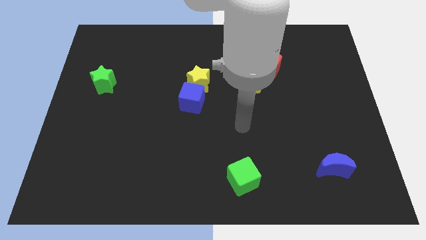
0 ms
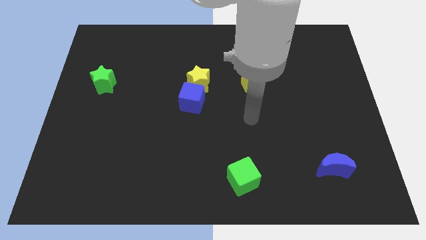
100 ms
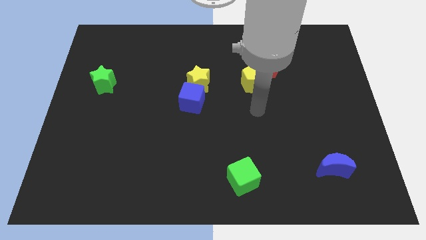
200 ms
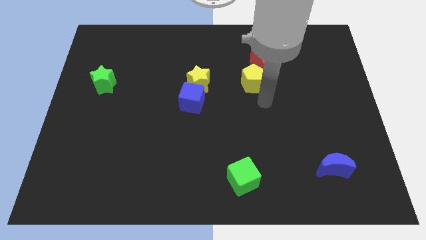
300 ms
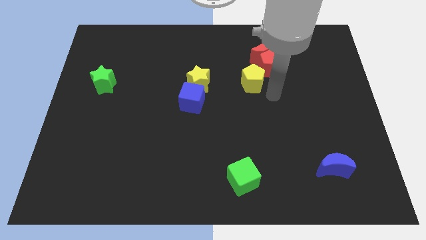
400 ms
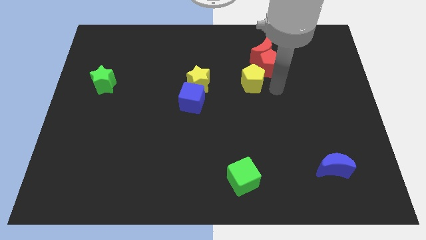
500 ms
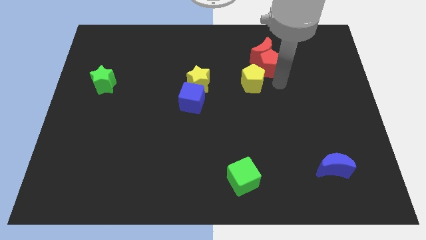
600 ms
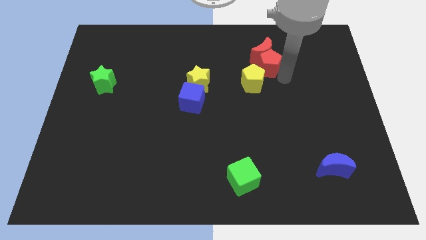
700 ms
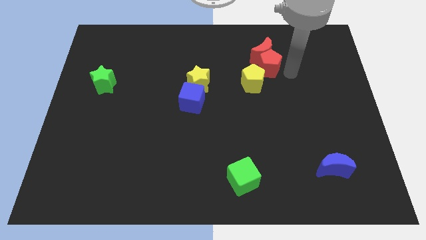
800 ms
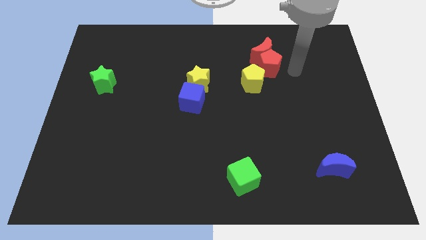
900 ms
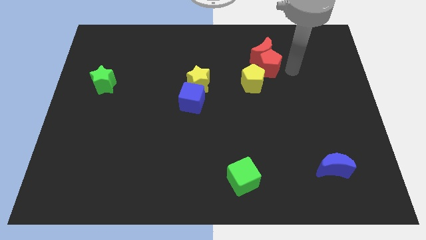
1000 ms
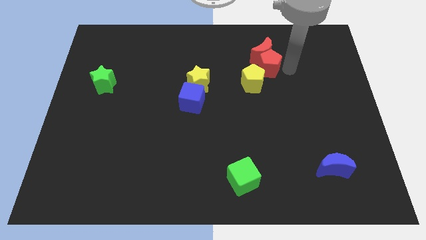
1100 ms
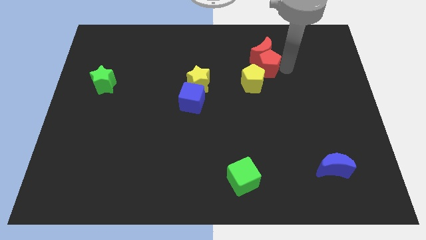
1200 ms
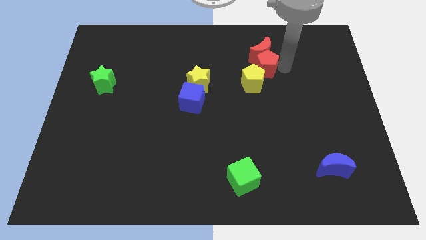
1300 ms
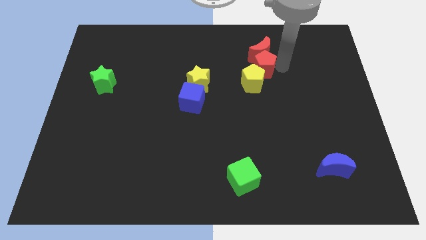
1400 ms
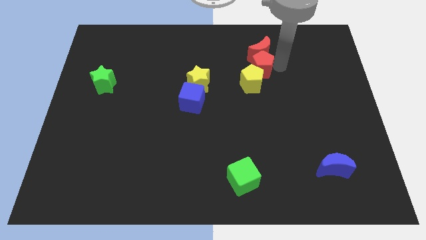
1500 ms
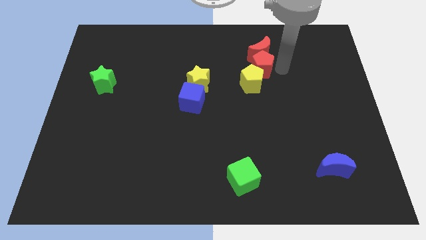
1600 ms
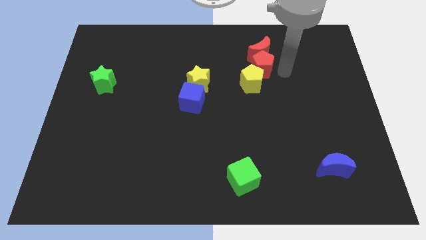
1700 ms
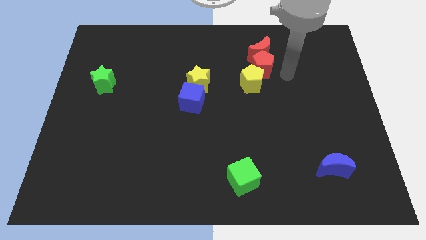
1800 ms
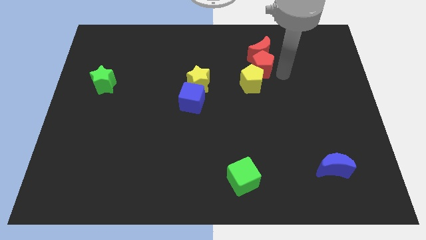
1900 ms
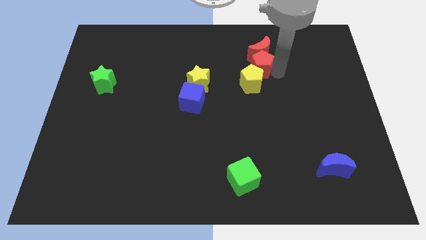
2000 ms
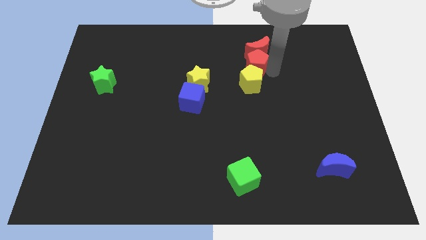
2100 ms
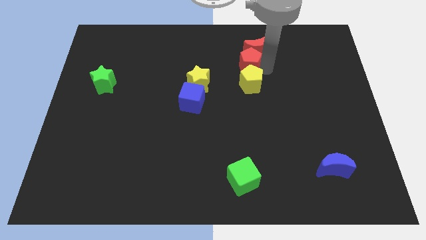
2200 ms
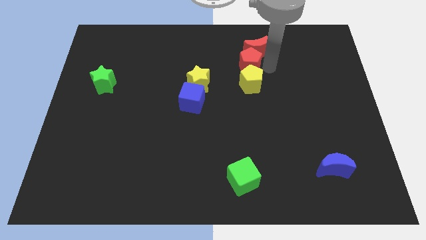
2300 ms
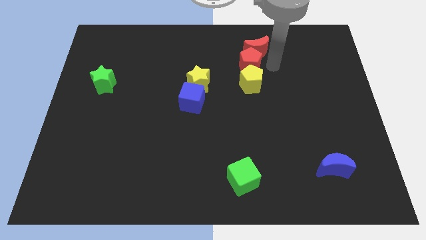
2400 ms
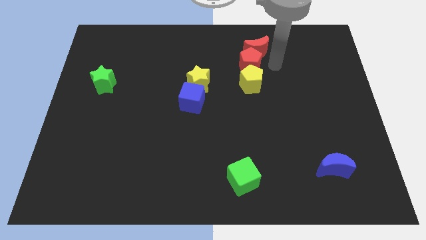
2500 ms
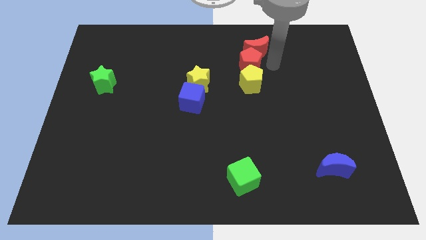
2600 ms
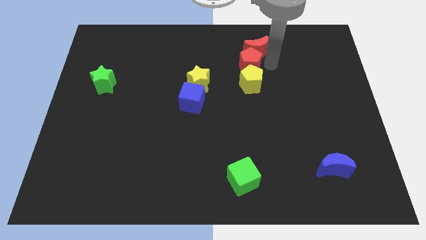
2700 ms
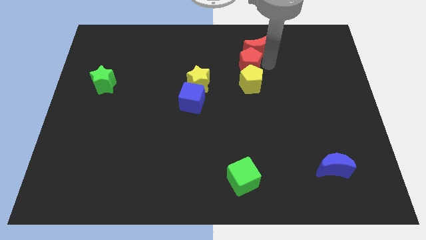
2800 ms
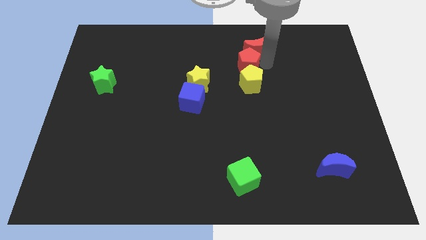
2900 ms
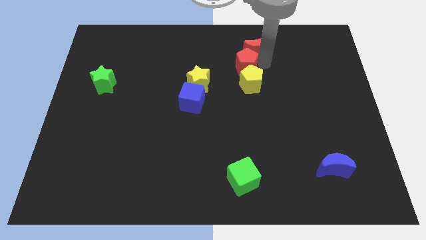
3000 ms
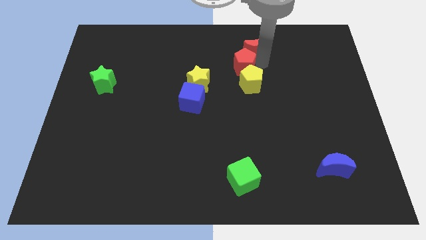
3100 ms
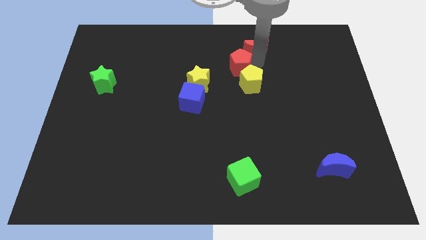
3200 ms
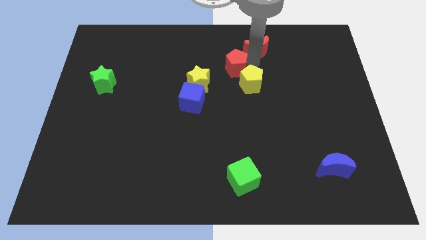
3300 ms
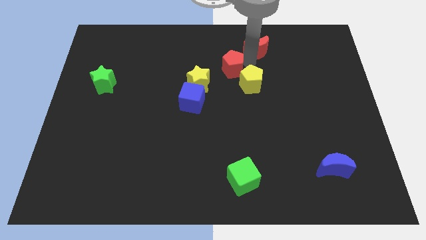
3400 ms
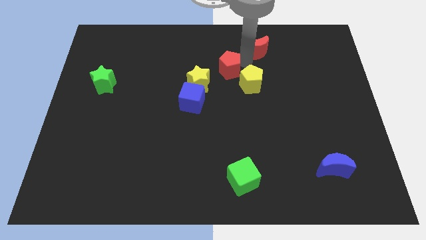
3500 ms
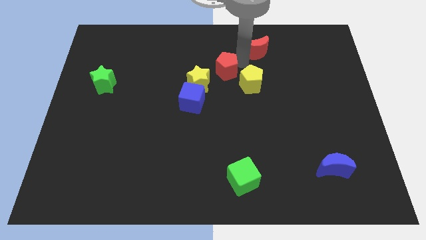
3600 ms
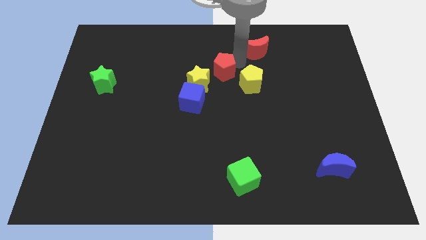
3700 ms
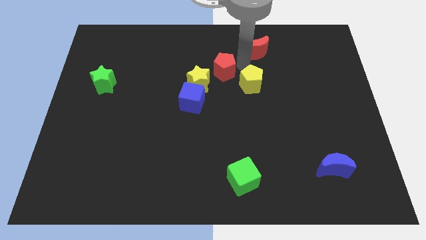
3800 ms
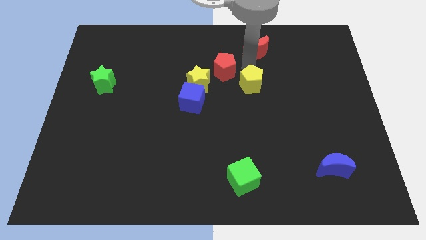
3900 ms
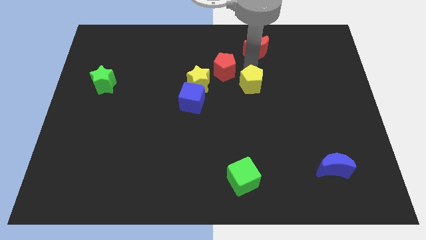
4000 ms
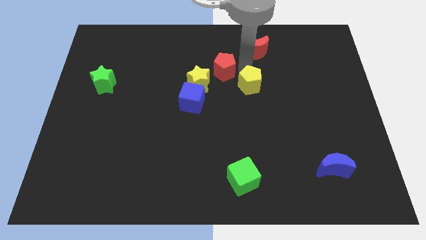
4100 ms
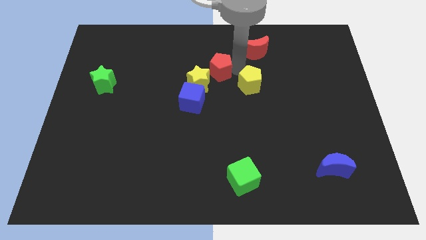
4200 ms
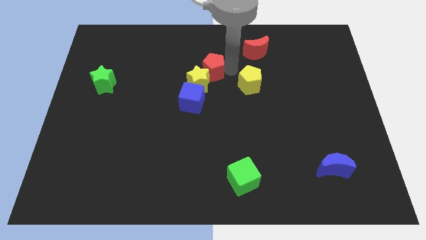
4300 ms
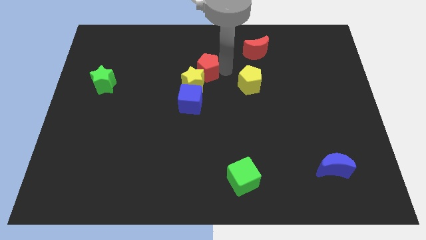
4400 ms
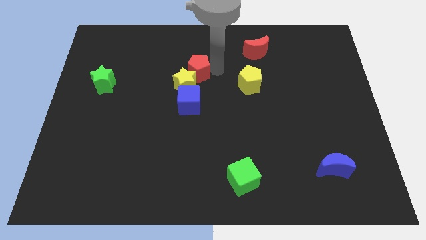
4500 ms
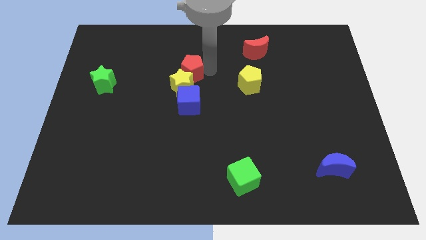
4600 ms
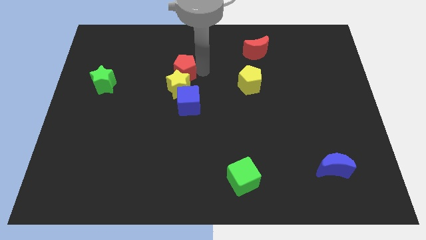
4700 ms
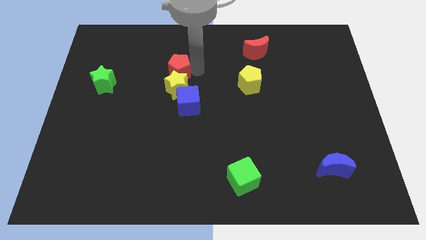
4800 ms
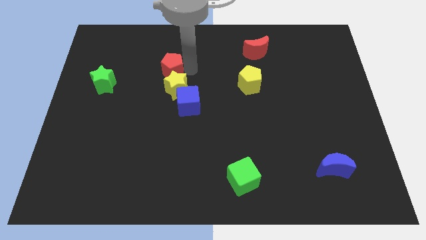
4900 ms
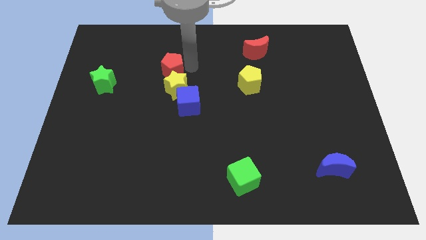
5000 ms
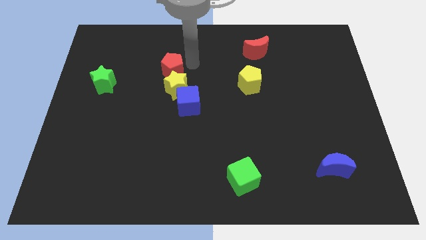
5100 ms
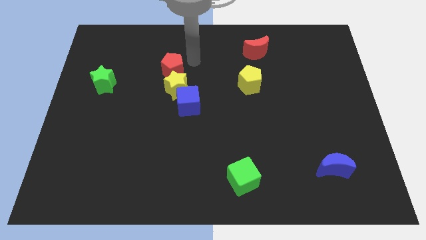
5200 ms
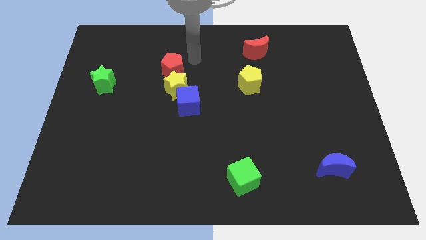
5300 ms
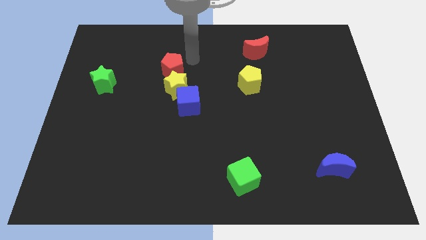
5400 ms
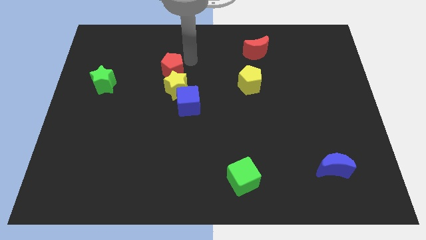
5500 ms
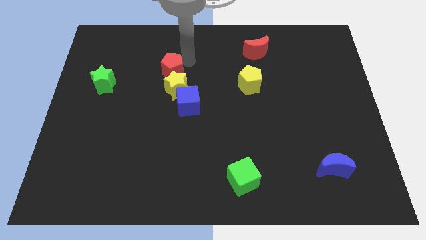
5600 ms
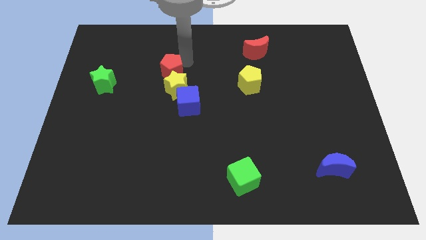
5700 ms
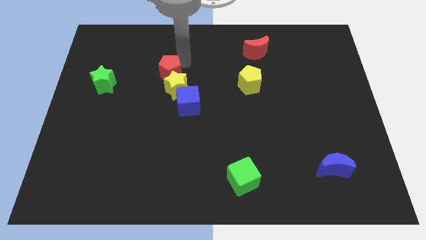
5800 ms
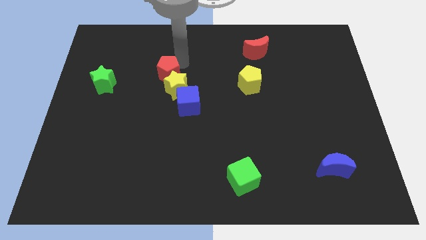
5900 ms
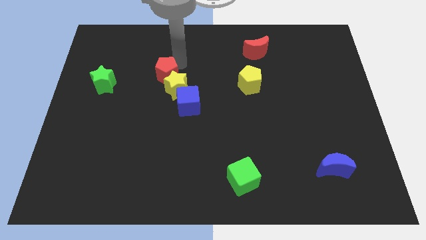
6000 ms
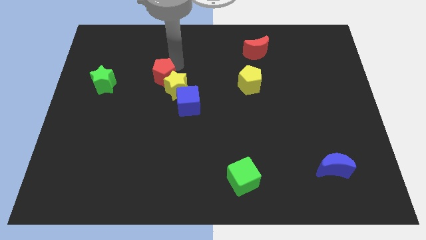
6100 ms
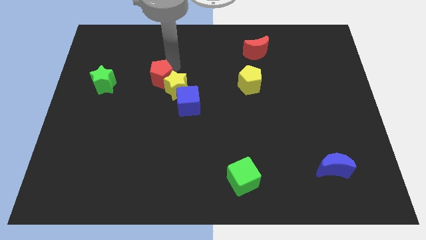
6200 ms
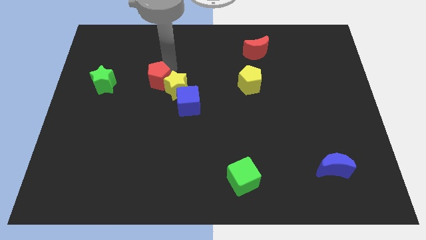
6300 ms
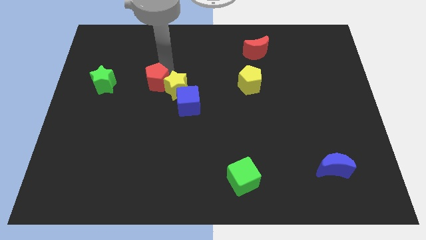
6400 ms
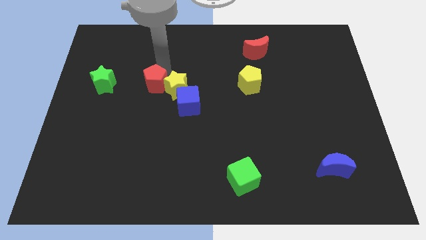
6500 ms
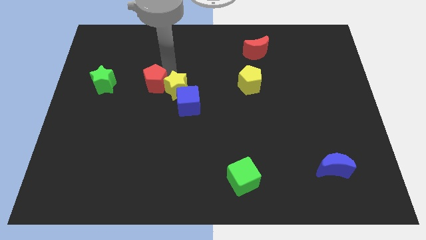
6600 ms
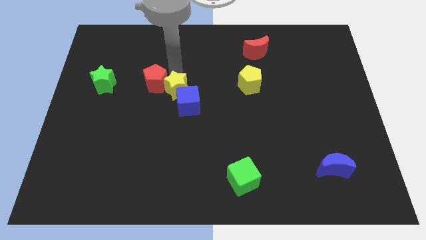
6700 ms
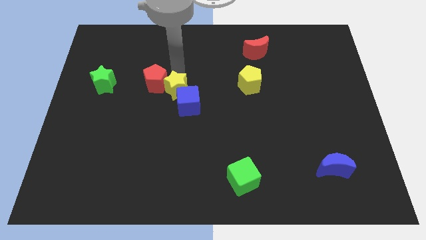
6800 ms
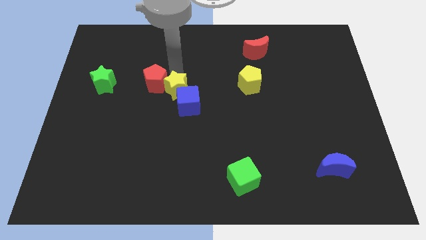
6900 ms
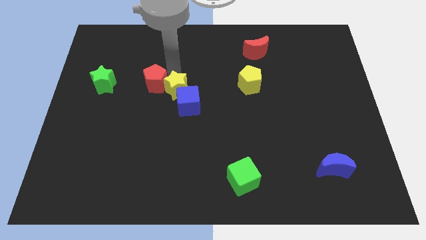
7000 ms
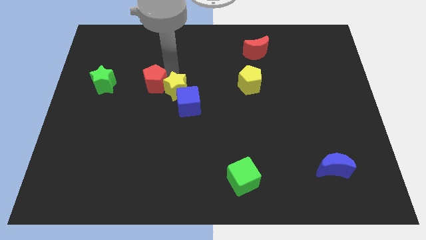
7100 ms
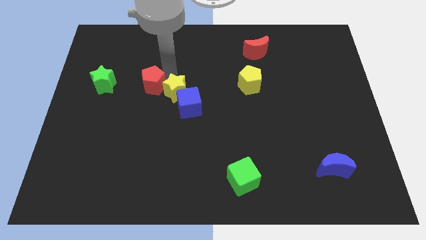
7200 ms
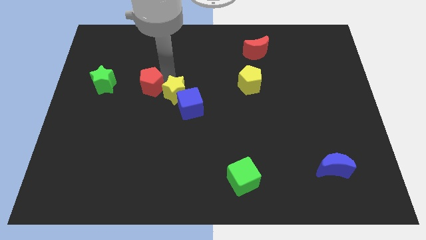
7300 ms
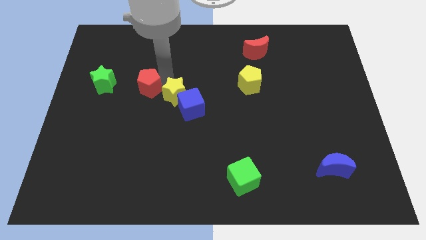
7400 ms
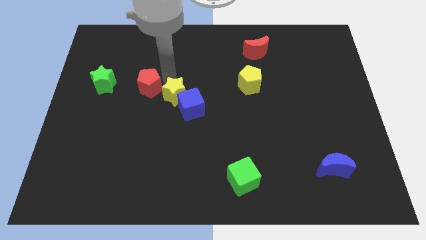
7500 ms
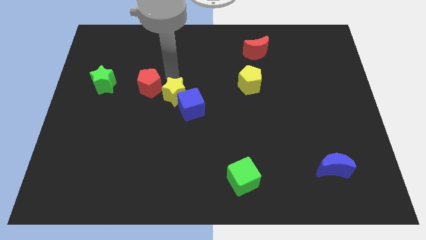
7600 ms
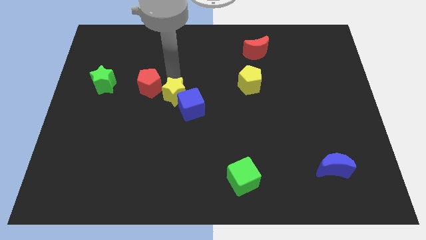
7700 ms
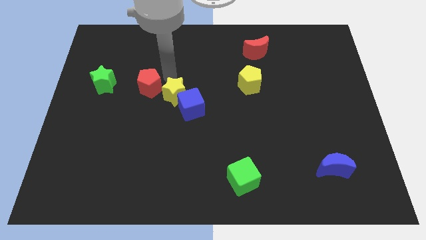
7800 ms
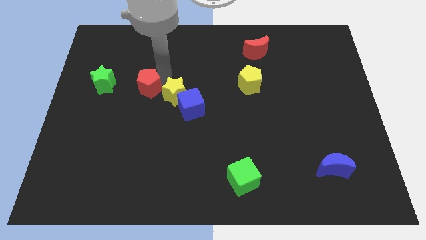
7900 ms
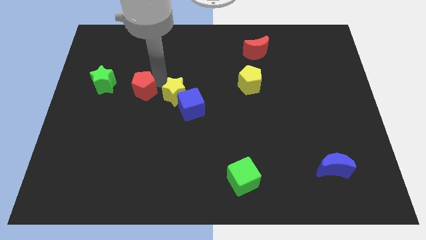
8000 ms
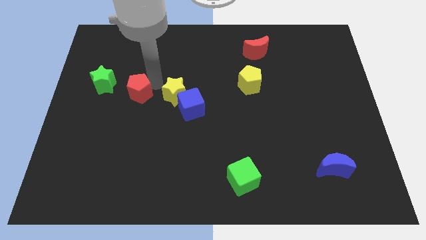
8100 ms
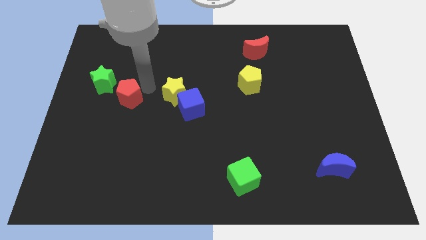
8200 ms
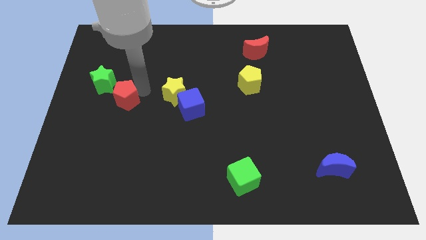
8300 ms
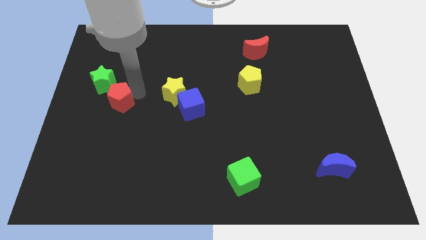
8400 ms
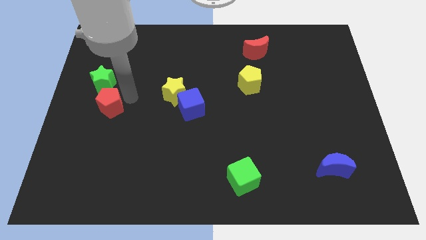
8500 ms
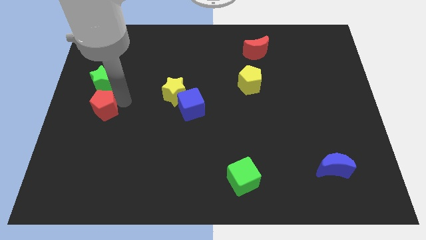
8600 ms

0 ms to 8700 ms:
push the red pentagon to the center left
